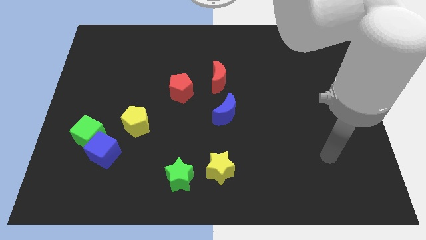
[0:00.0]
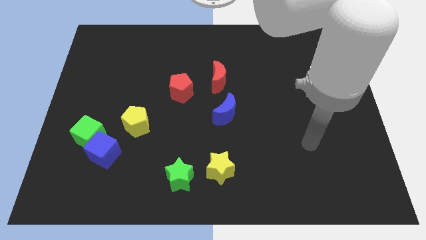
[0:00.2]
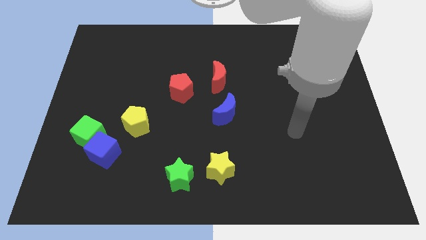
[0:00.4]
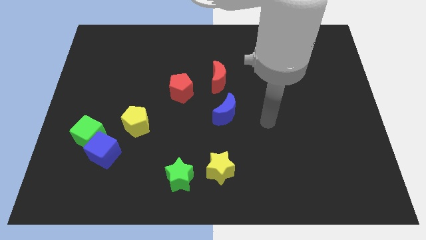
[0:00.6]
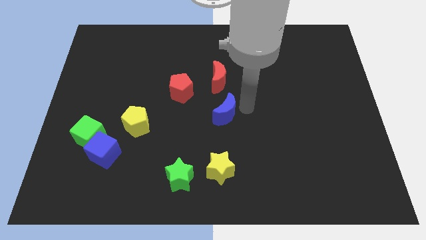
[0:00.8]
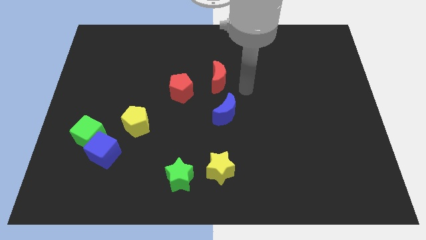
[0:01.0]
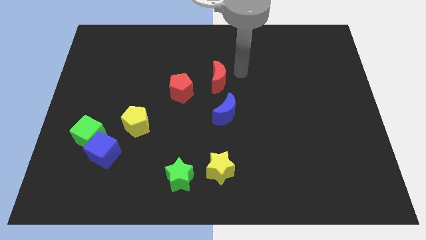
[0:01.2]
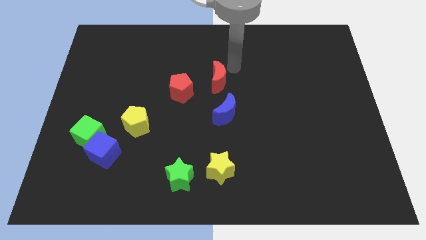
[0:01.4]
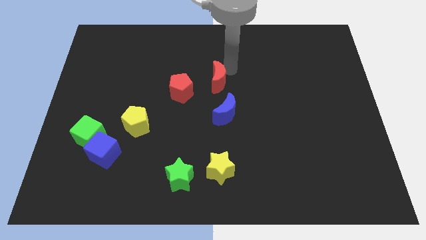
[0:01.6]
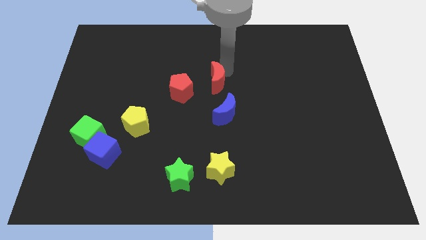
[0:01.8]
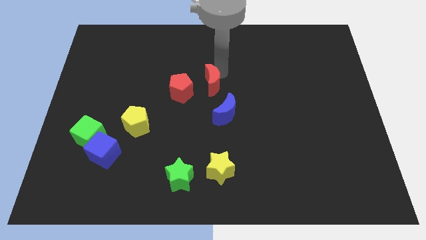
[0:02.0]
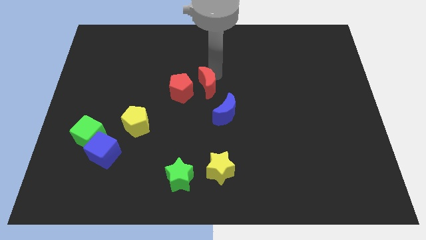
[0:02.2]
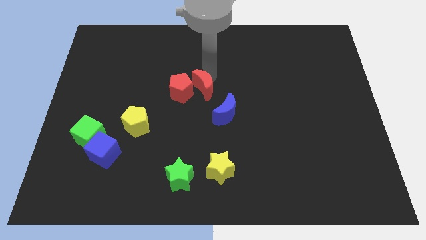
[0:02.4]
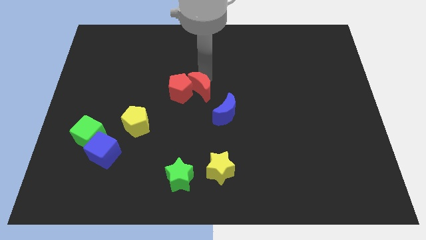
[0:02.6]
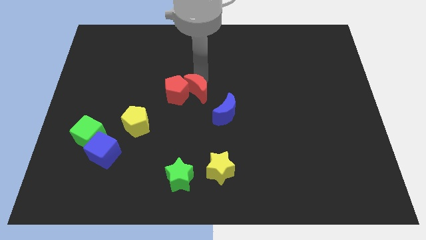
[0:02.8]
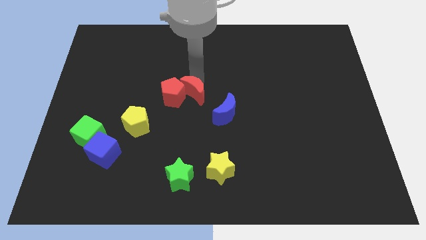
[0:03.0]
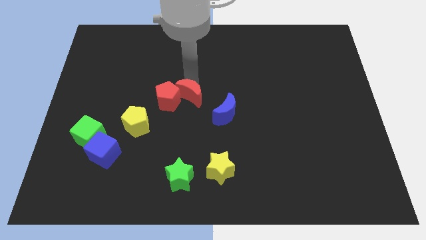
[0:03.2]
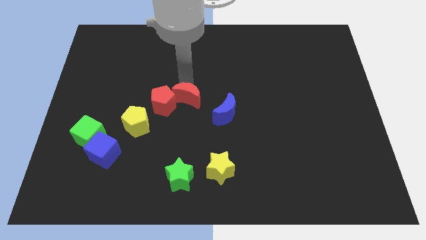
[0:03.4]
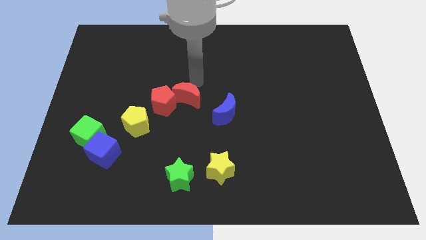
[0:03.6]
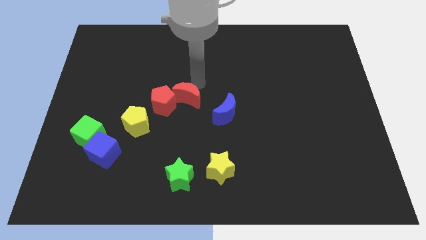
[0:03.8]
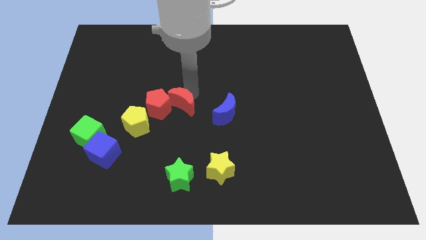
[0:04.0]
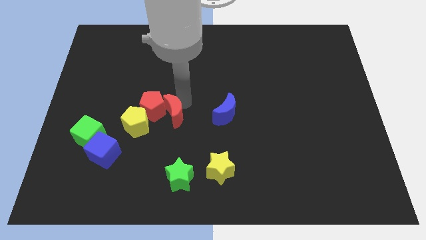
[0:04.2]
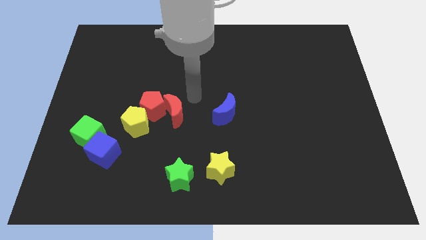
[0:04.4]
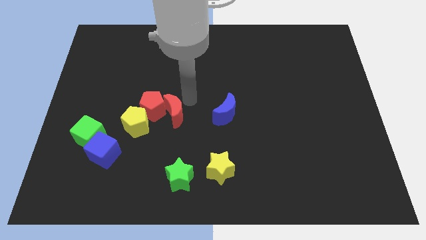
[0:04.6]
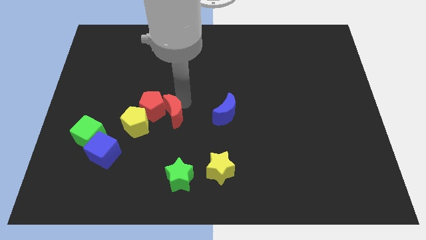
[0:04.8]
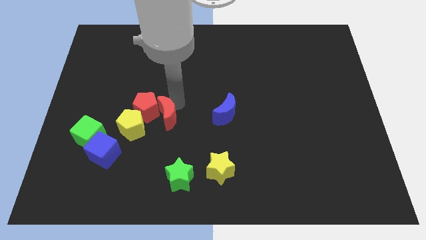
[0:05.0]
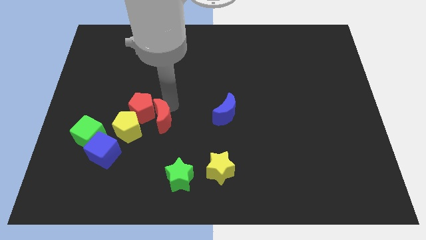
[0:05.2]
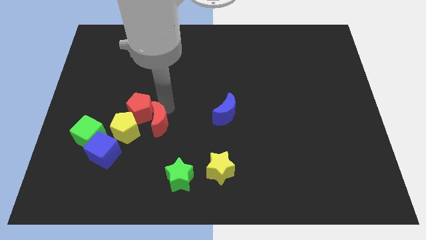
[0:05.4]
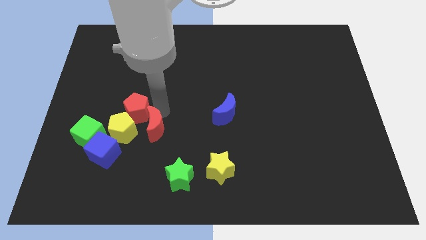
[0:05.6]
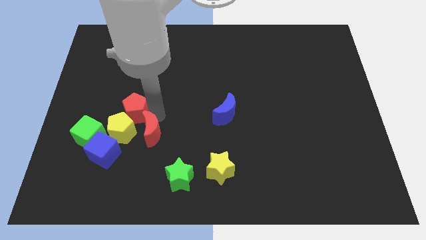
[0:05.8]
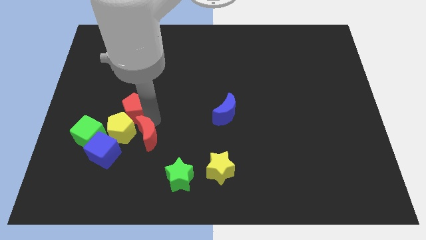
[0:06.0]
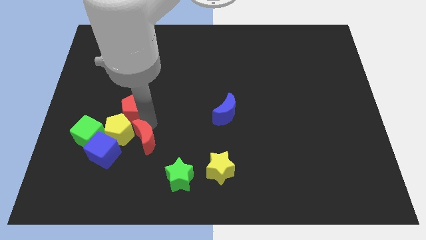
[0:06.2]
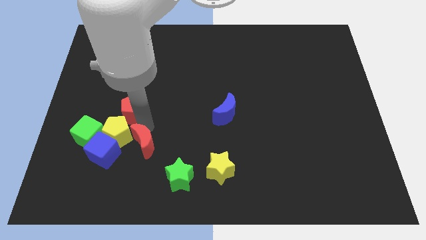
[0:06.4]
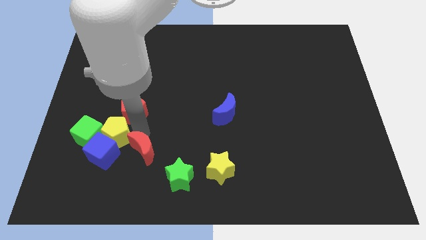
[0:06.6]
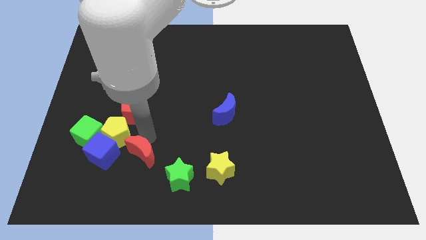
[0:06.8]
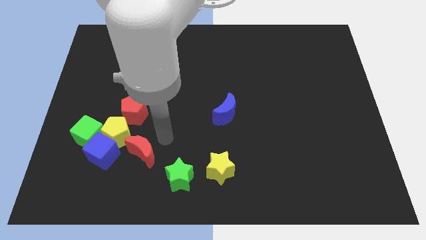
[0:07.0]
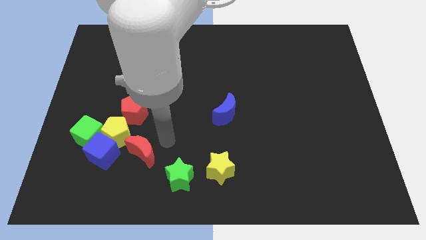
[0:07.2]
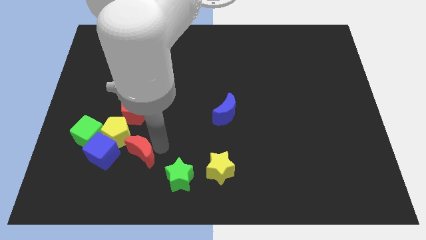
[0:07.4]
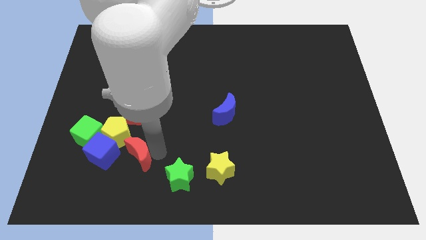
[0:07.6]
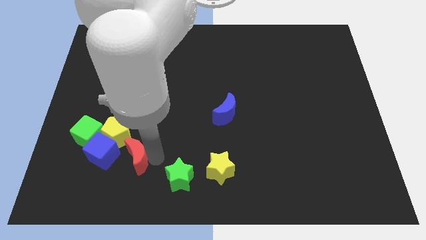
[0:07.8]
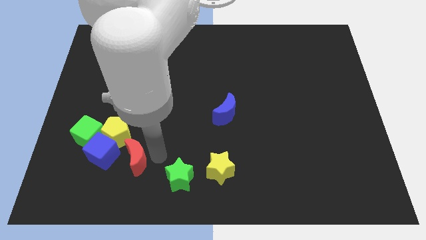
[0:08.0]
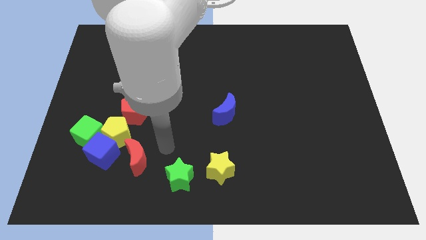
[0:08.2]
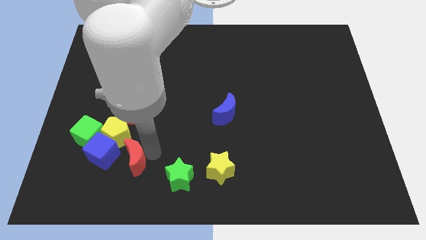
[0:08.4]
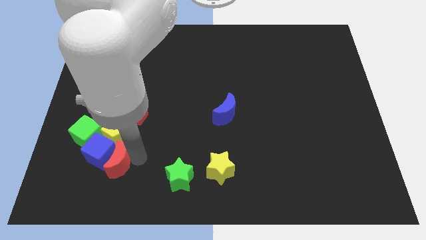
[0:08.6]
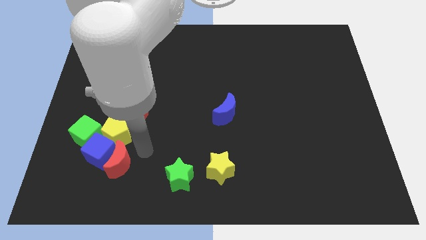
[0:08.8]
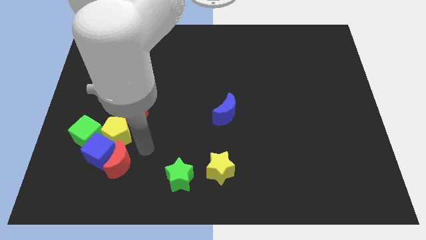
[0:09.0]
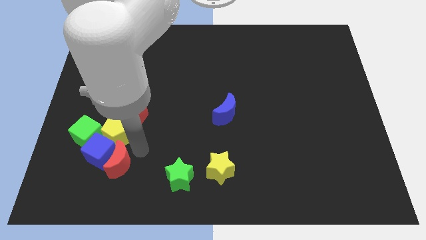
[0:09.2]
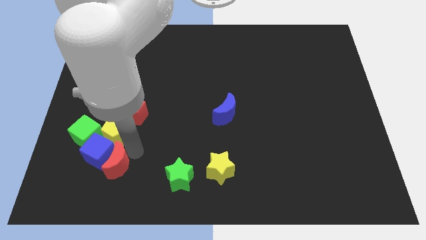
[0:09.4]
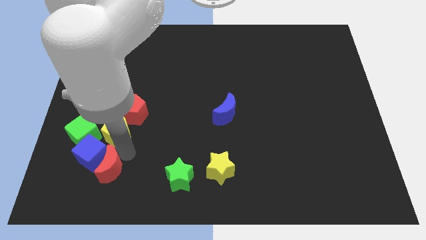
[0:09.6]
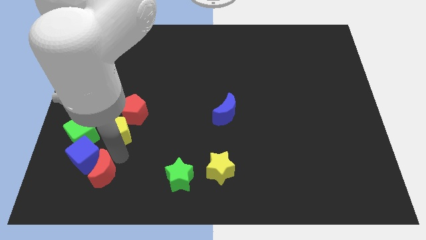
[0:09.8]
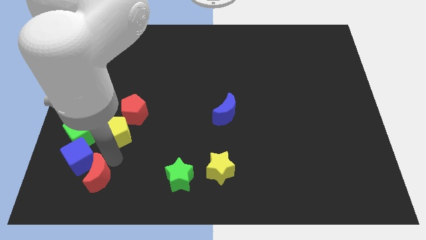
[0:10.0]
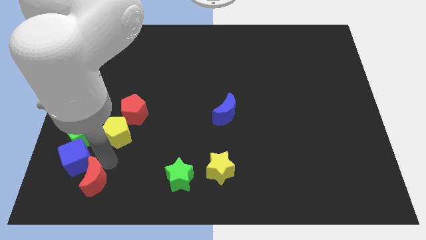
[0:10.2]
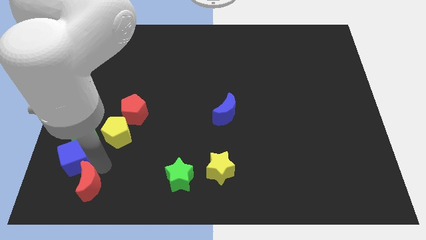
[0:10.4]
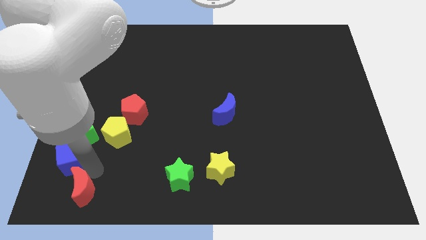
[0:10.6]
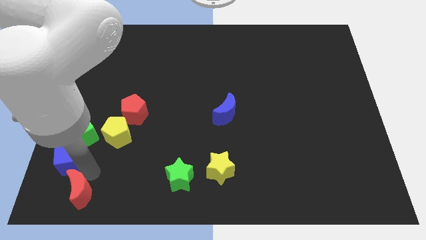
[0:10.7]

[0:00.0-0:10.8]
slide the red moon to the bottom left corner
